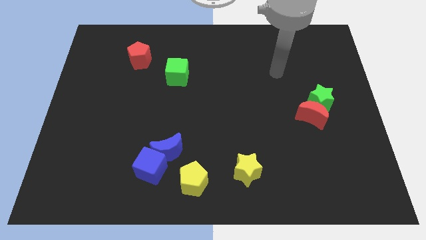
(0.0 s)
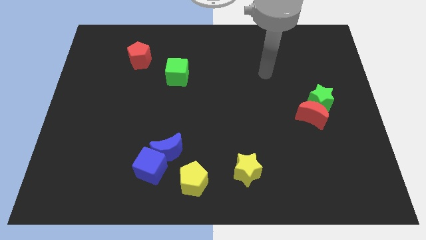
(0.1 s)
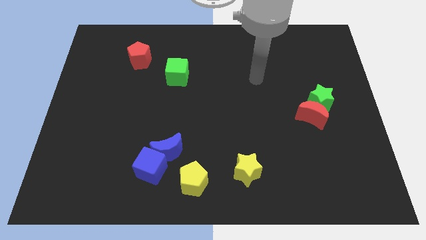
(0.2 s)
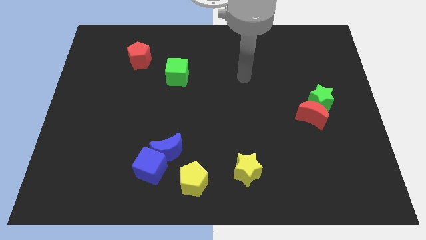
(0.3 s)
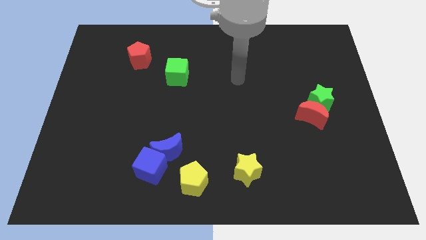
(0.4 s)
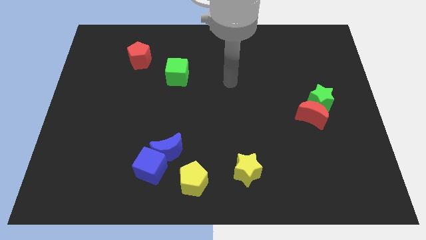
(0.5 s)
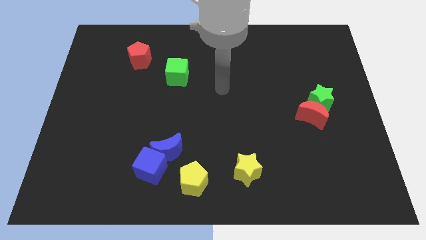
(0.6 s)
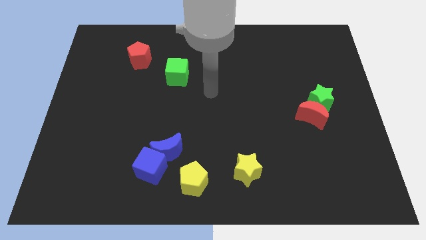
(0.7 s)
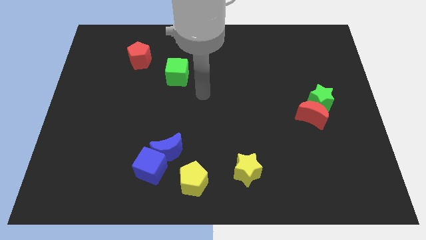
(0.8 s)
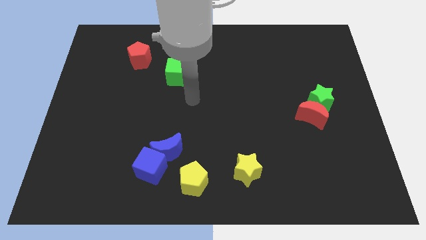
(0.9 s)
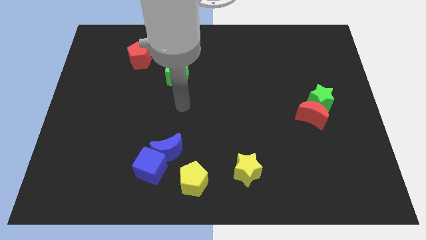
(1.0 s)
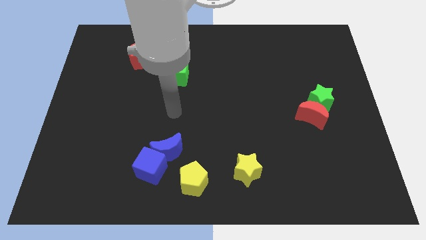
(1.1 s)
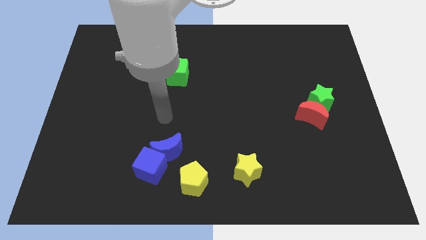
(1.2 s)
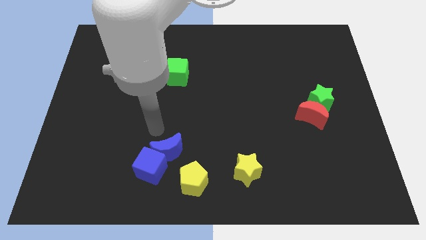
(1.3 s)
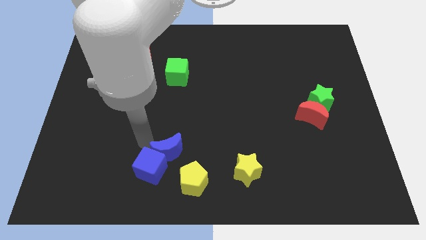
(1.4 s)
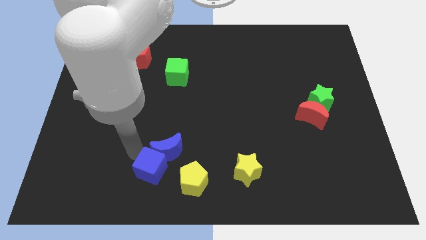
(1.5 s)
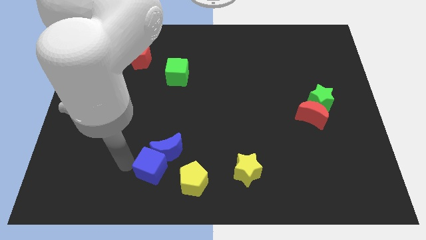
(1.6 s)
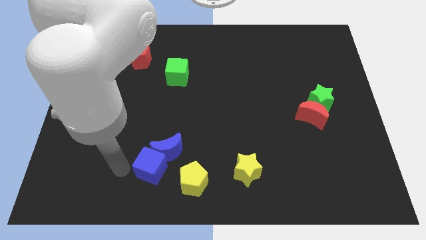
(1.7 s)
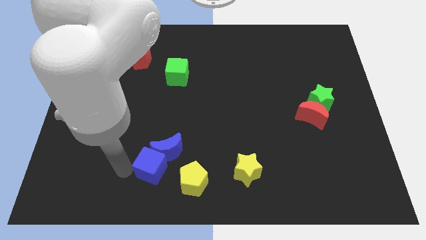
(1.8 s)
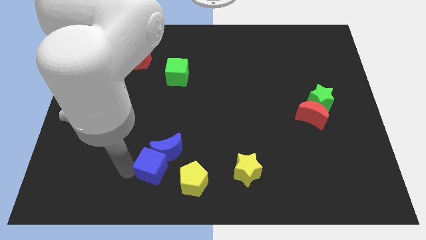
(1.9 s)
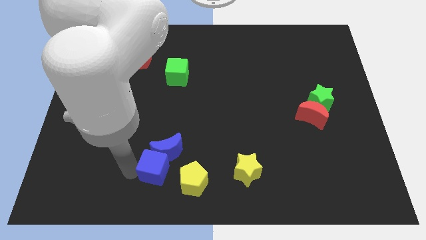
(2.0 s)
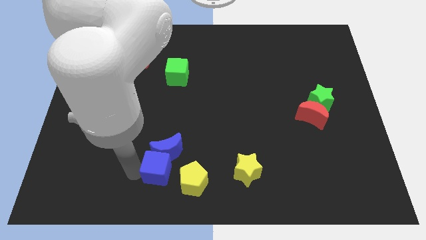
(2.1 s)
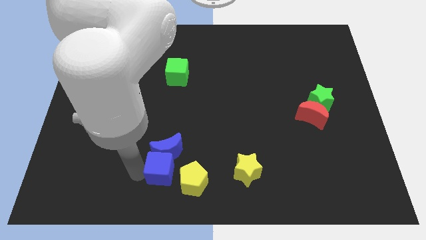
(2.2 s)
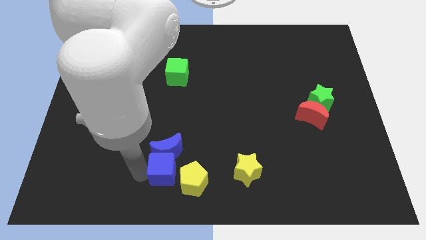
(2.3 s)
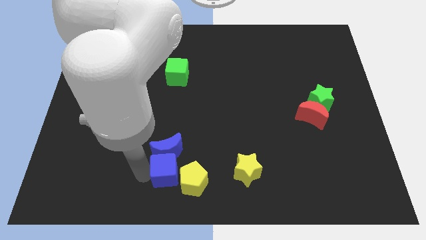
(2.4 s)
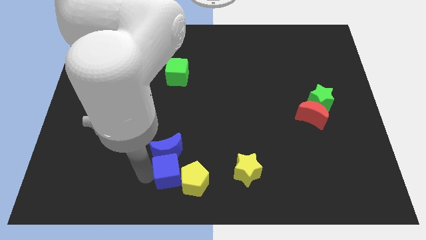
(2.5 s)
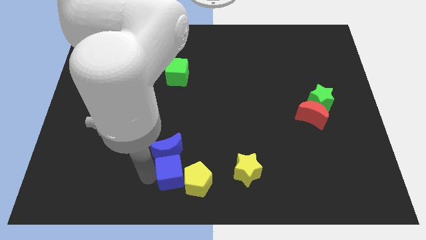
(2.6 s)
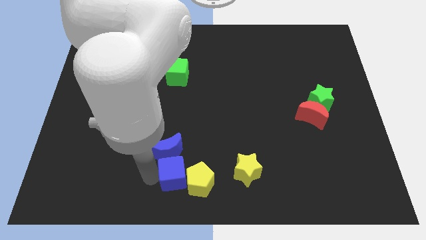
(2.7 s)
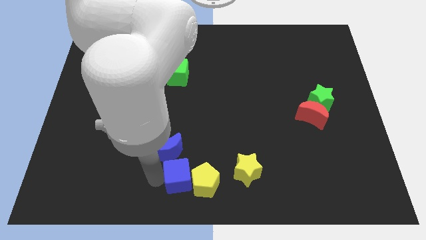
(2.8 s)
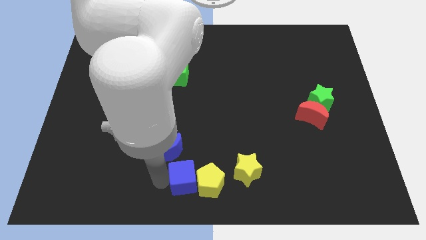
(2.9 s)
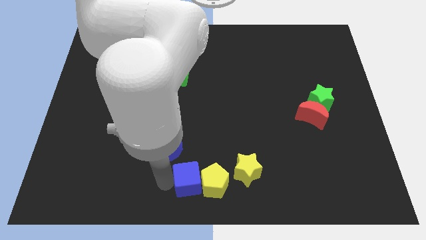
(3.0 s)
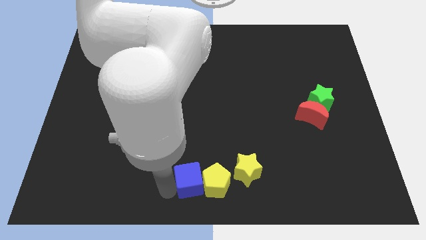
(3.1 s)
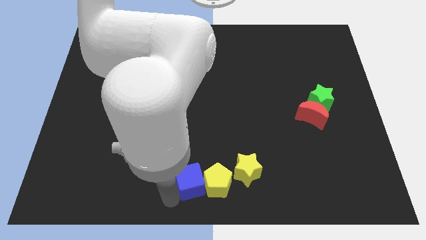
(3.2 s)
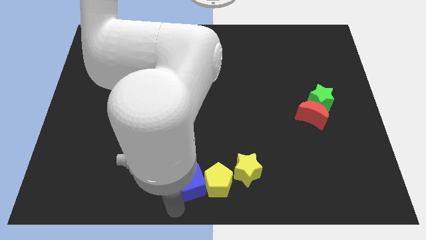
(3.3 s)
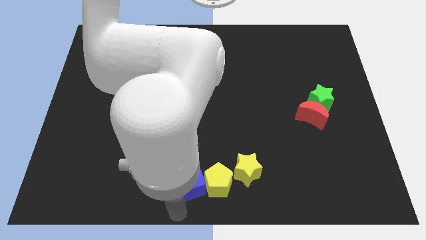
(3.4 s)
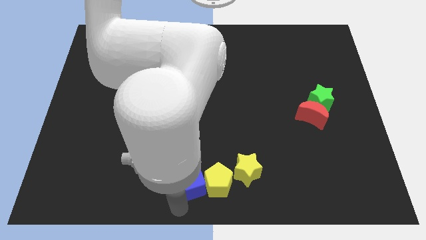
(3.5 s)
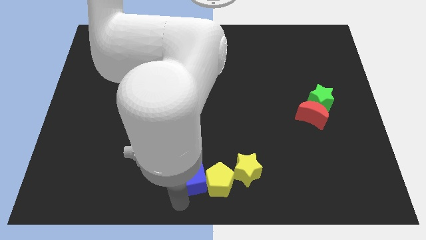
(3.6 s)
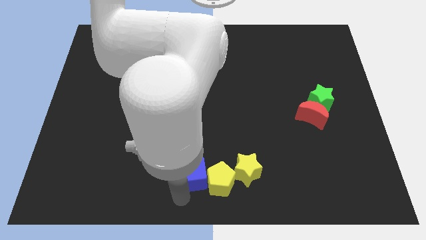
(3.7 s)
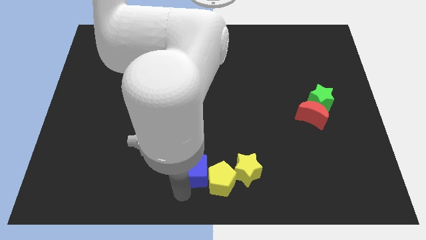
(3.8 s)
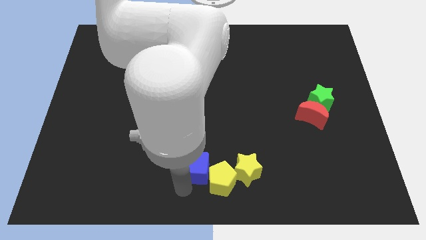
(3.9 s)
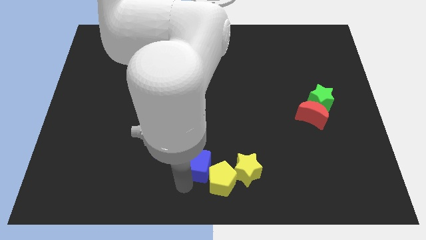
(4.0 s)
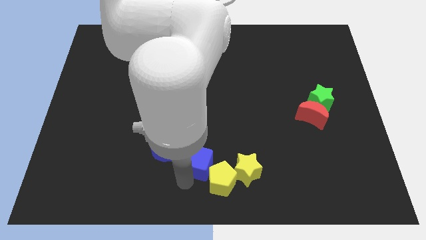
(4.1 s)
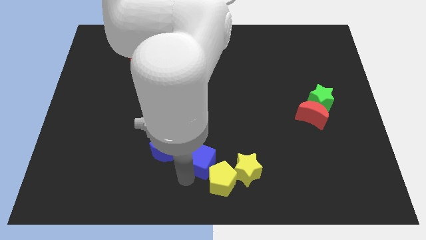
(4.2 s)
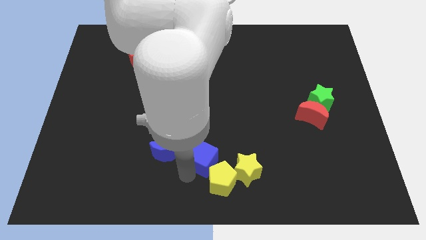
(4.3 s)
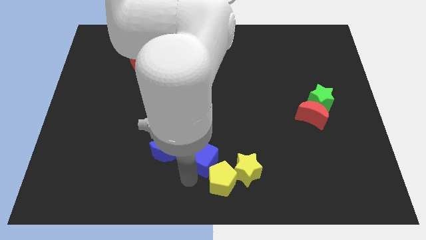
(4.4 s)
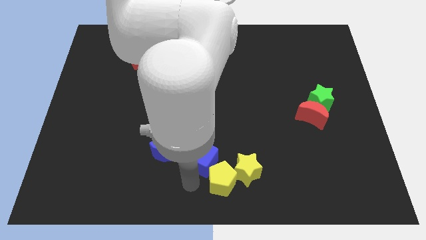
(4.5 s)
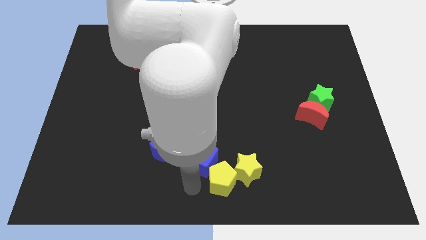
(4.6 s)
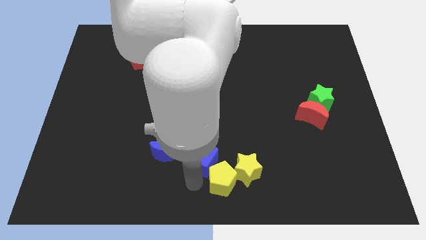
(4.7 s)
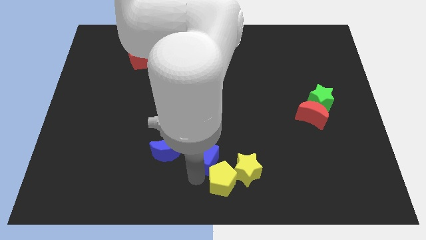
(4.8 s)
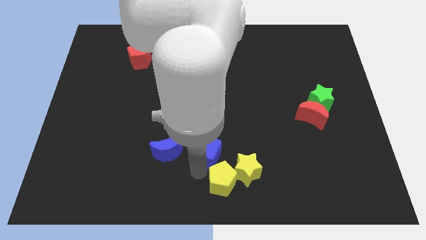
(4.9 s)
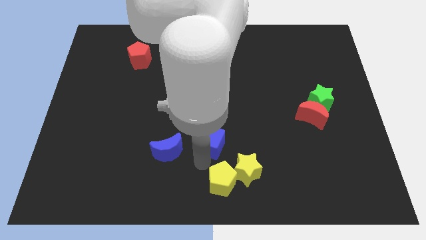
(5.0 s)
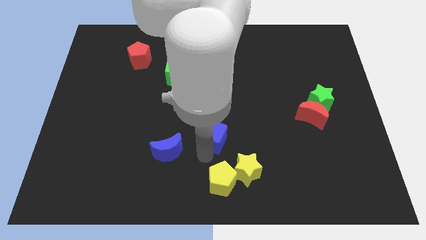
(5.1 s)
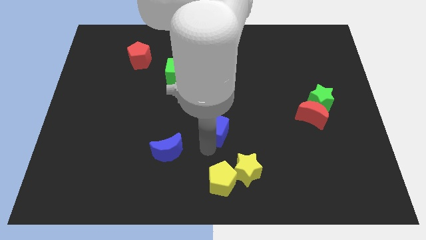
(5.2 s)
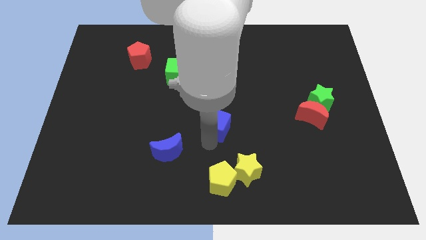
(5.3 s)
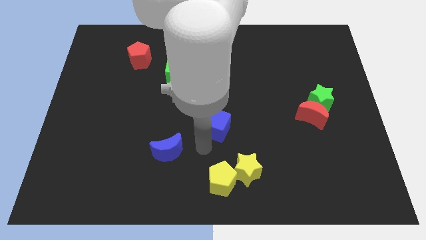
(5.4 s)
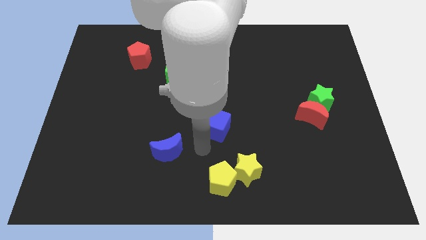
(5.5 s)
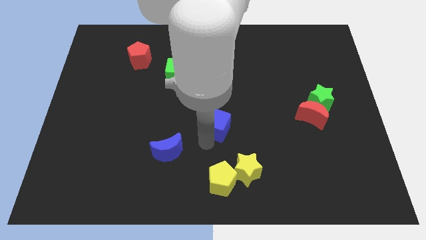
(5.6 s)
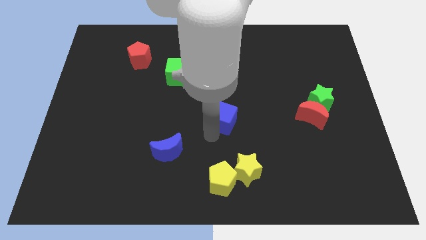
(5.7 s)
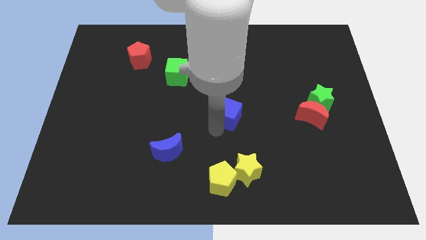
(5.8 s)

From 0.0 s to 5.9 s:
slide the blue cube upwards and right

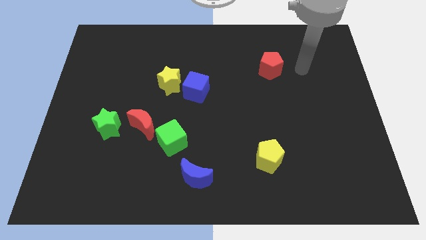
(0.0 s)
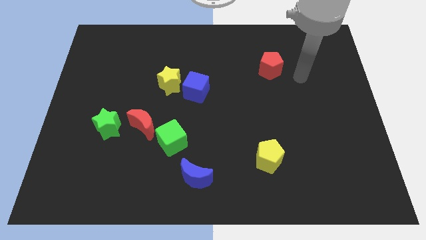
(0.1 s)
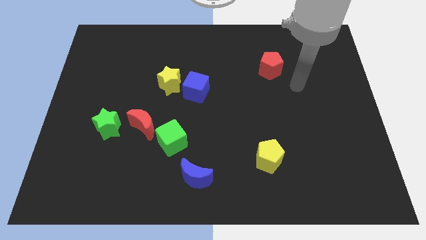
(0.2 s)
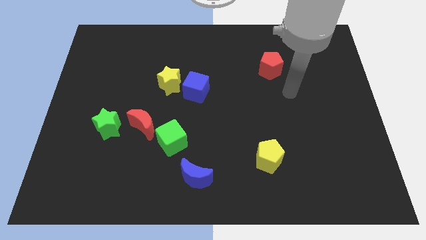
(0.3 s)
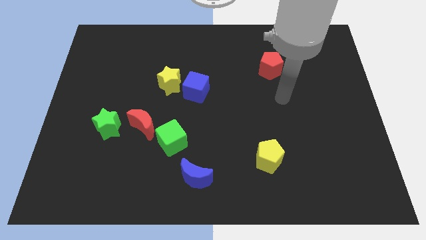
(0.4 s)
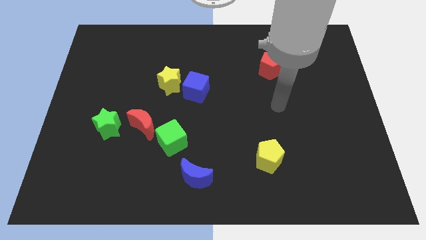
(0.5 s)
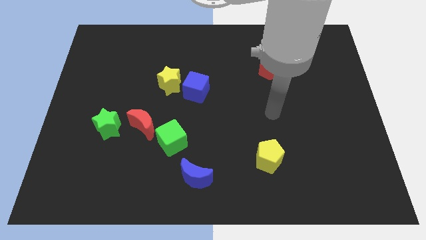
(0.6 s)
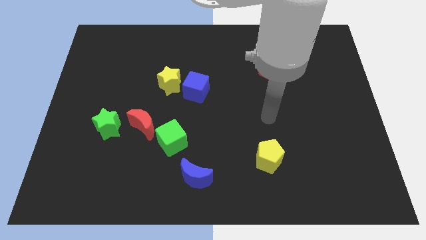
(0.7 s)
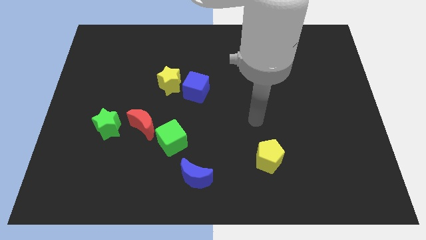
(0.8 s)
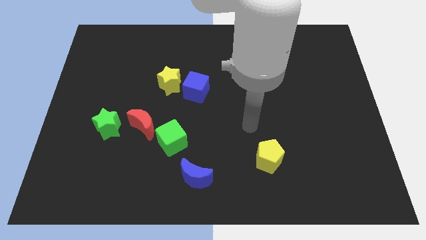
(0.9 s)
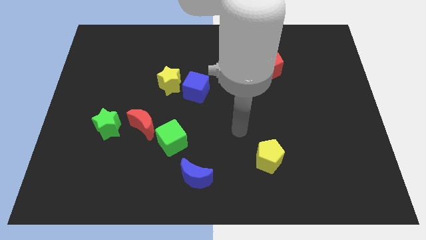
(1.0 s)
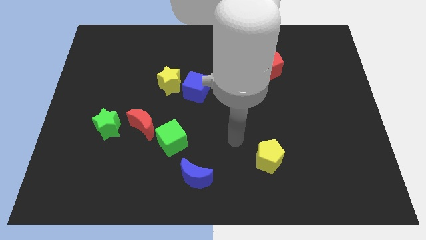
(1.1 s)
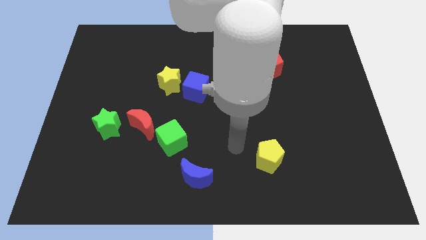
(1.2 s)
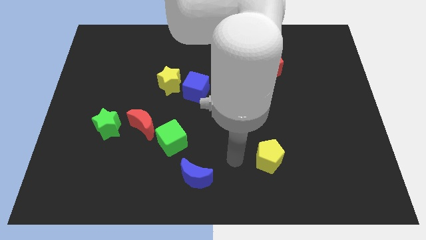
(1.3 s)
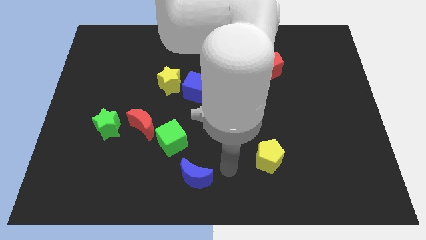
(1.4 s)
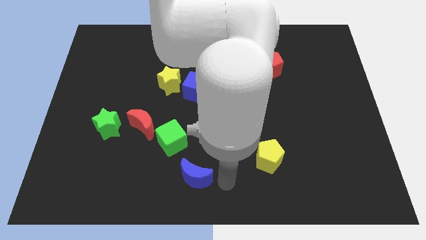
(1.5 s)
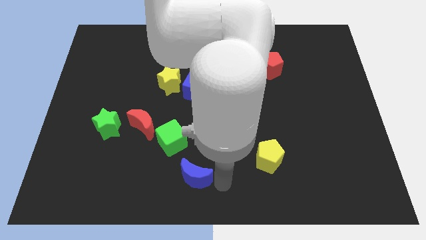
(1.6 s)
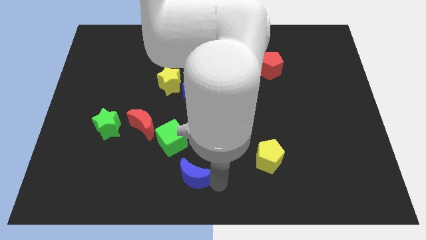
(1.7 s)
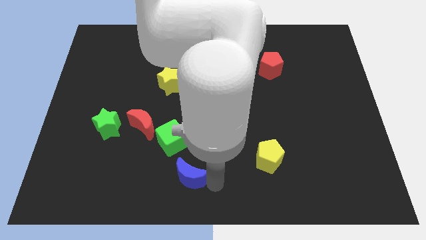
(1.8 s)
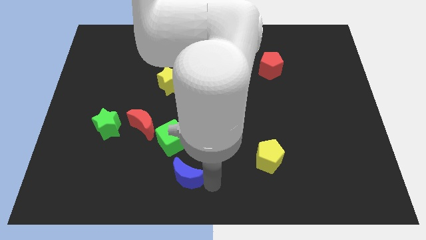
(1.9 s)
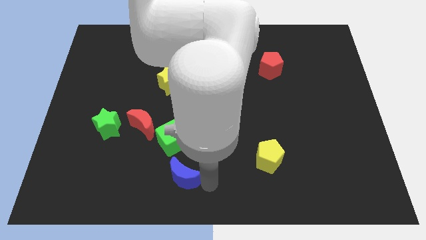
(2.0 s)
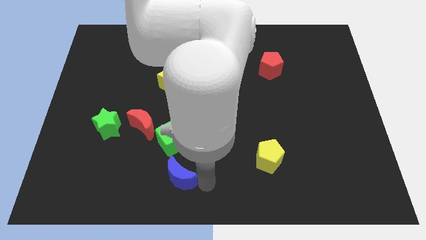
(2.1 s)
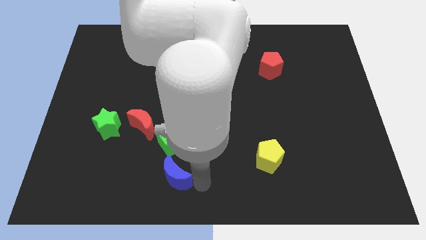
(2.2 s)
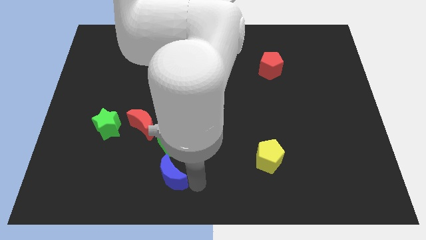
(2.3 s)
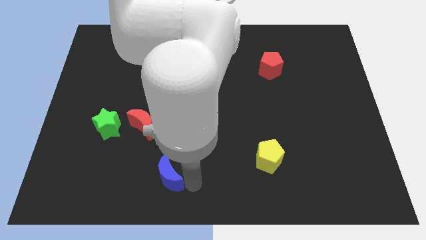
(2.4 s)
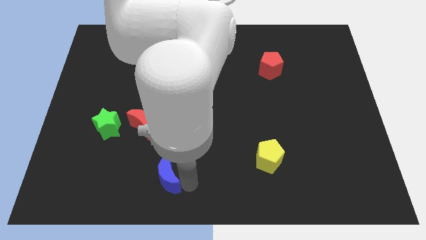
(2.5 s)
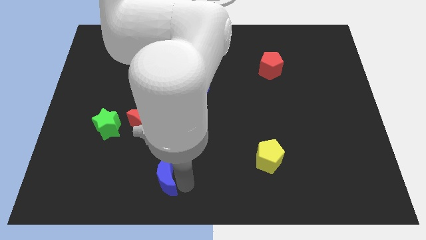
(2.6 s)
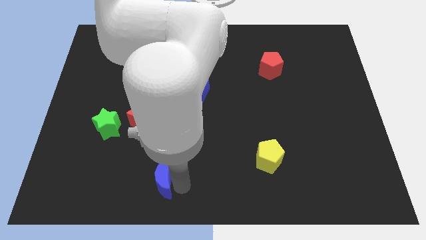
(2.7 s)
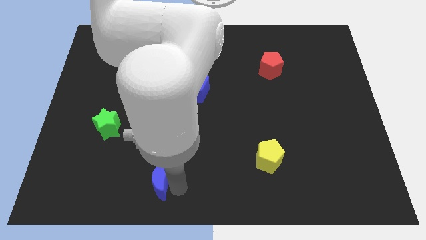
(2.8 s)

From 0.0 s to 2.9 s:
push the blue moon left a bit
